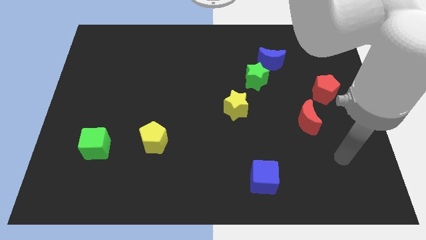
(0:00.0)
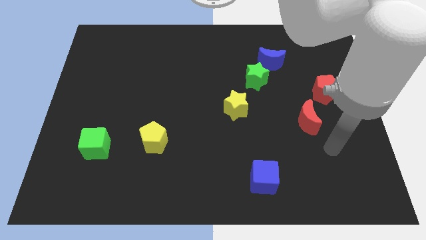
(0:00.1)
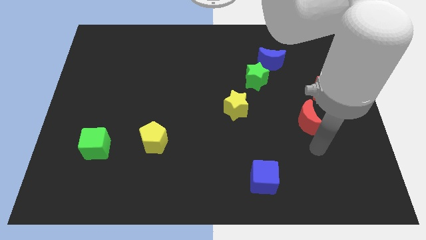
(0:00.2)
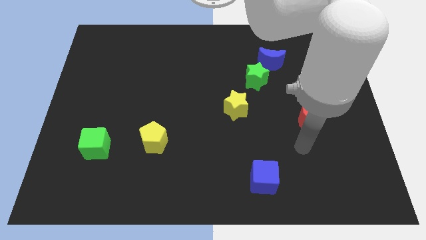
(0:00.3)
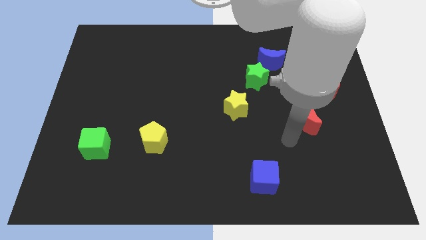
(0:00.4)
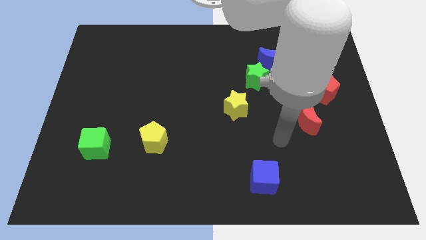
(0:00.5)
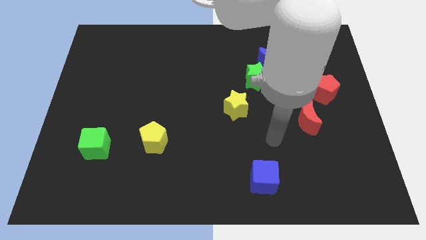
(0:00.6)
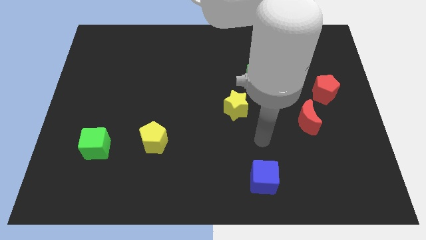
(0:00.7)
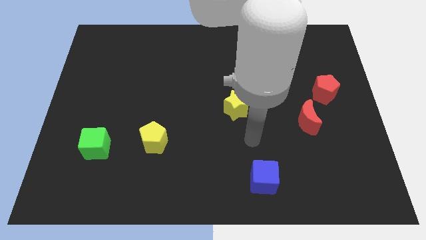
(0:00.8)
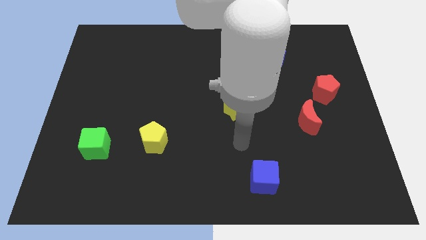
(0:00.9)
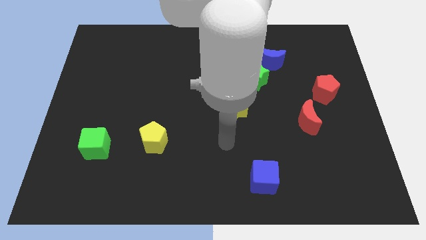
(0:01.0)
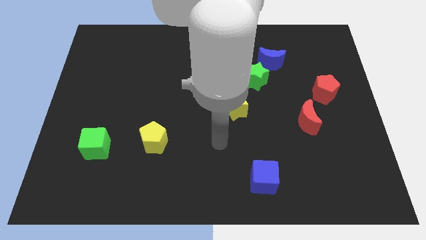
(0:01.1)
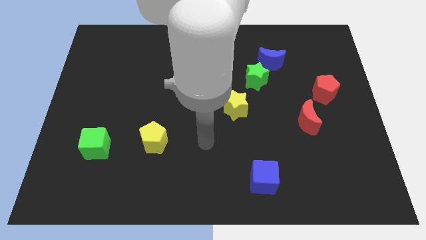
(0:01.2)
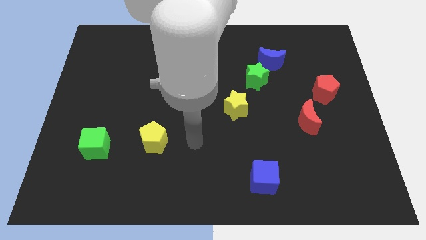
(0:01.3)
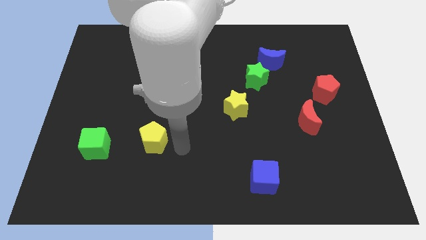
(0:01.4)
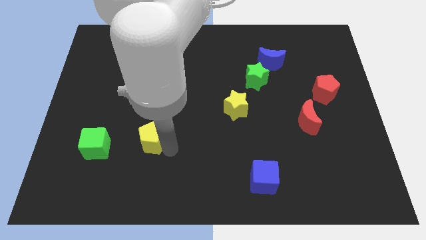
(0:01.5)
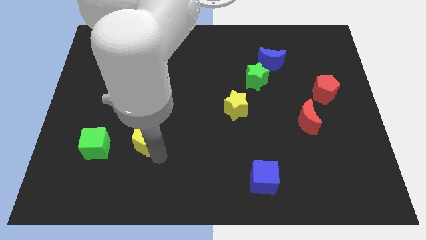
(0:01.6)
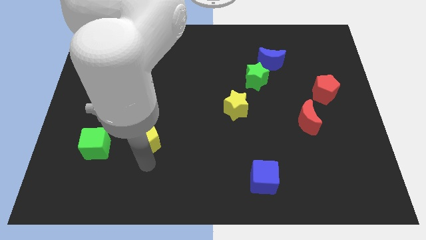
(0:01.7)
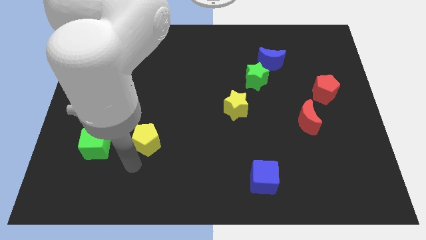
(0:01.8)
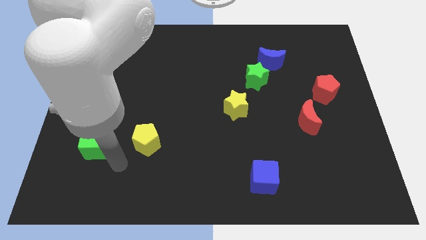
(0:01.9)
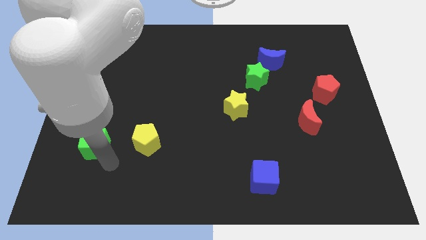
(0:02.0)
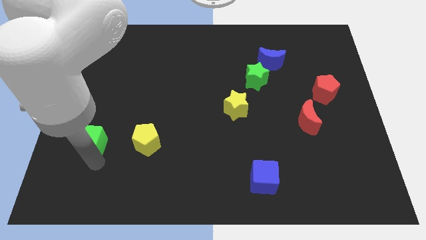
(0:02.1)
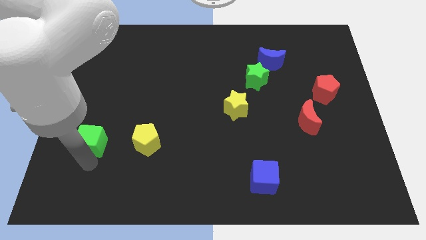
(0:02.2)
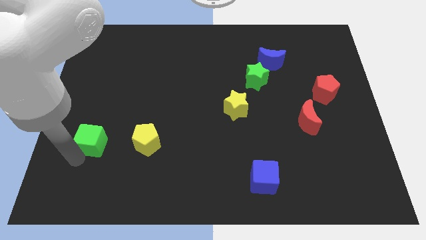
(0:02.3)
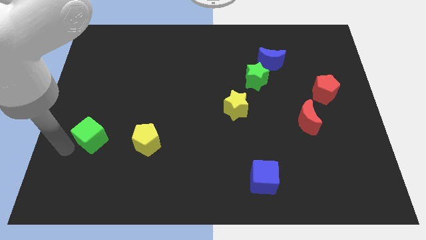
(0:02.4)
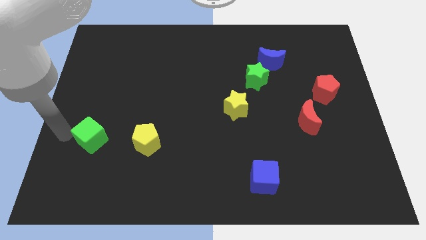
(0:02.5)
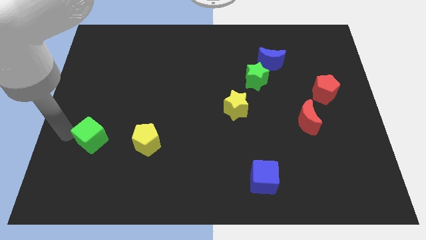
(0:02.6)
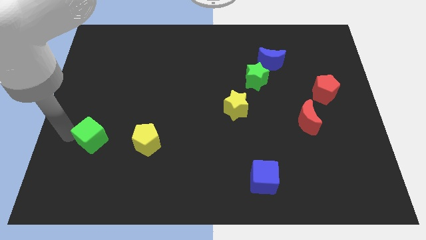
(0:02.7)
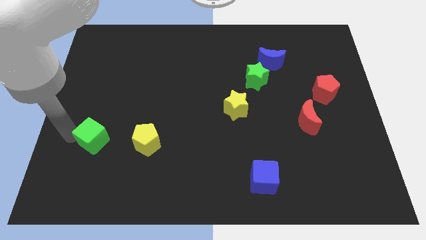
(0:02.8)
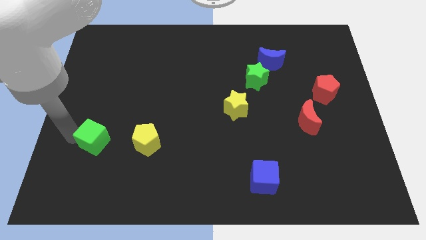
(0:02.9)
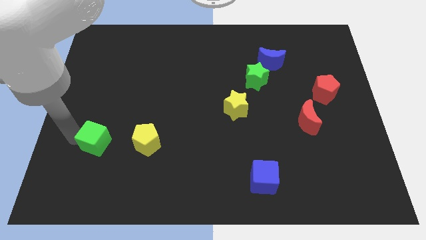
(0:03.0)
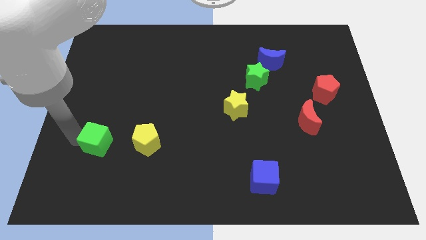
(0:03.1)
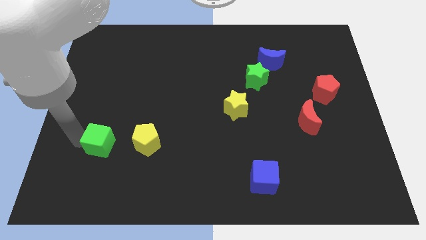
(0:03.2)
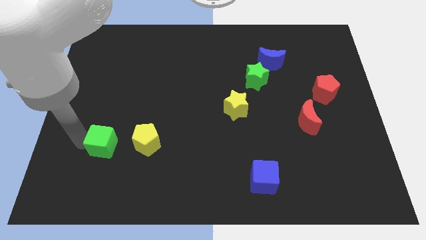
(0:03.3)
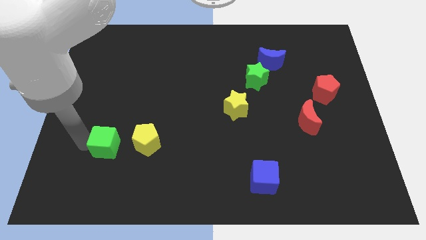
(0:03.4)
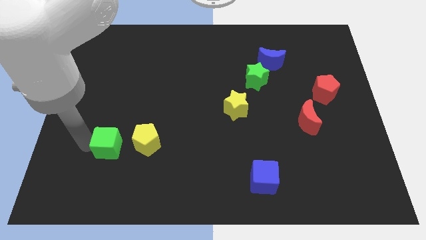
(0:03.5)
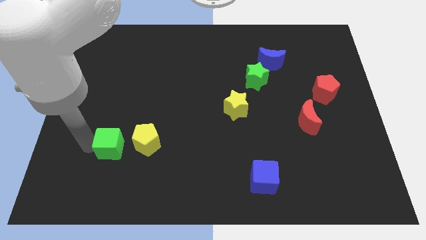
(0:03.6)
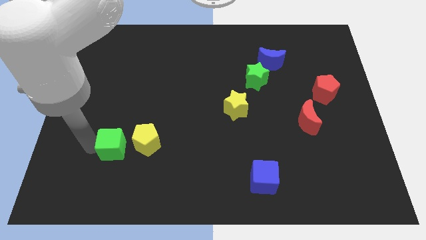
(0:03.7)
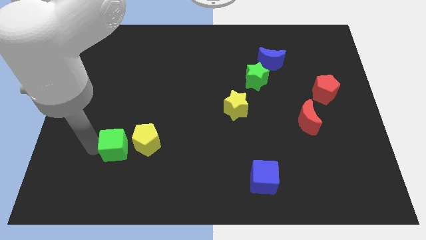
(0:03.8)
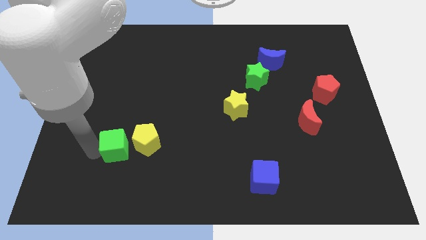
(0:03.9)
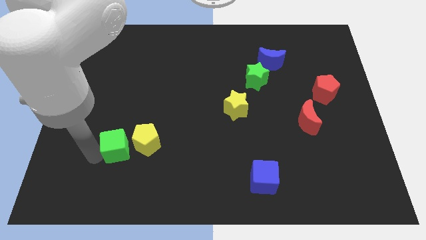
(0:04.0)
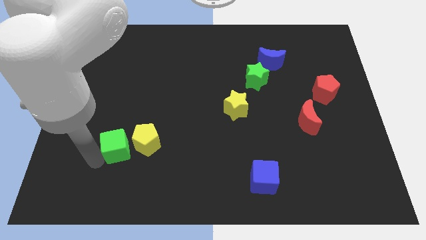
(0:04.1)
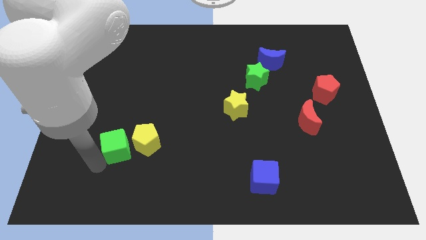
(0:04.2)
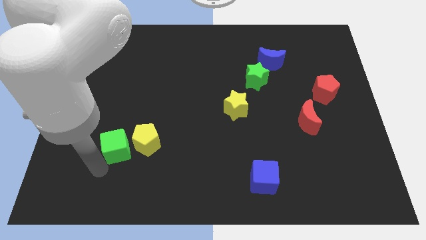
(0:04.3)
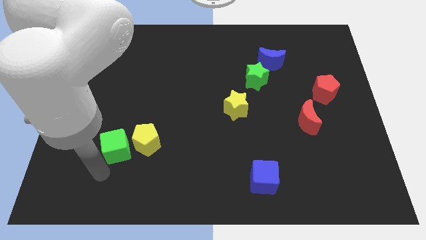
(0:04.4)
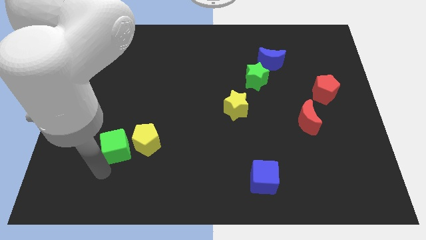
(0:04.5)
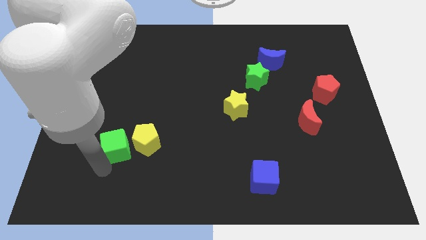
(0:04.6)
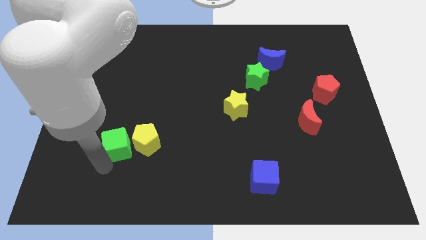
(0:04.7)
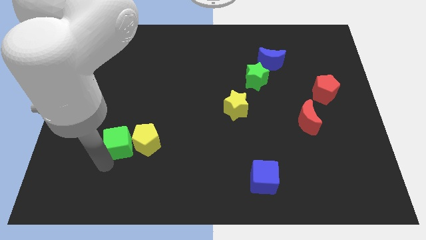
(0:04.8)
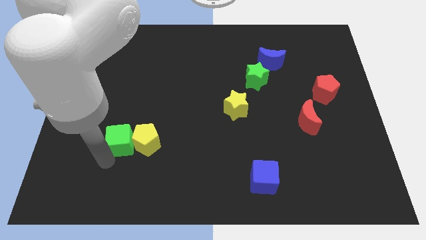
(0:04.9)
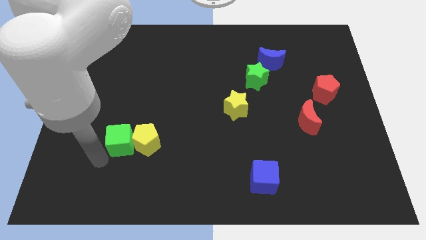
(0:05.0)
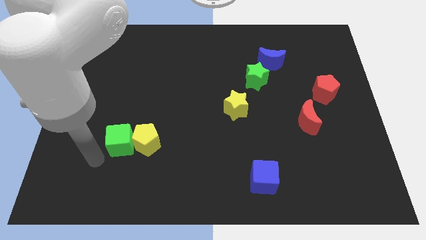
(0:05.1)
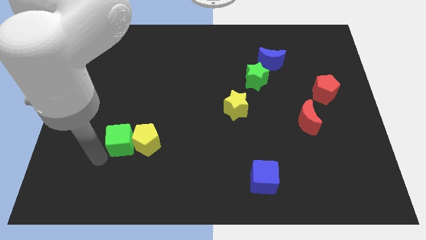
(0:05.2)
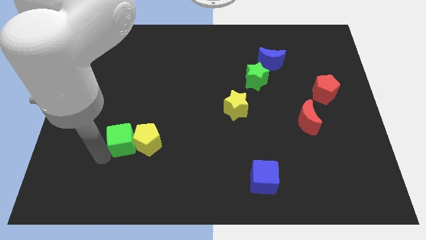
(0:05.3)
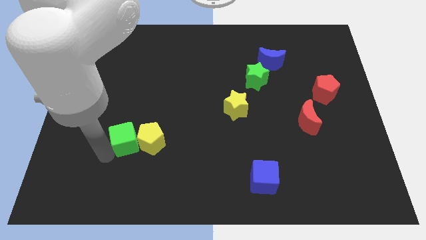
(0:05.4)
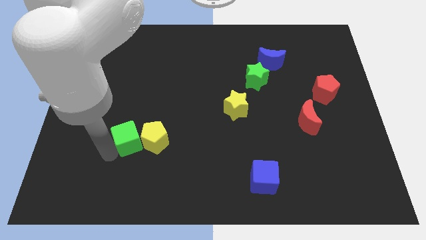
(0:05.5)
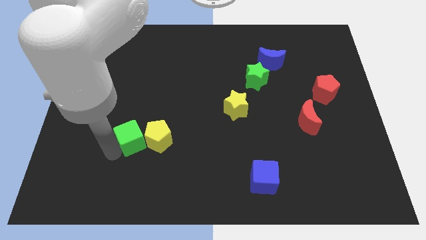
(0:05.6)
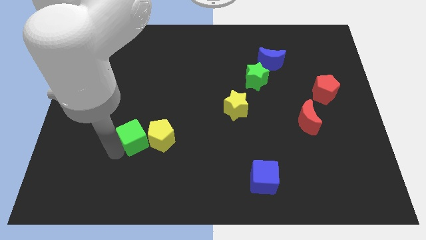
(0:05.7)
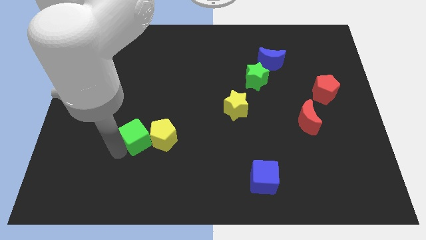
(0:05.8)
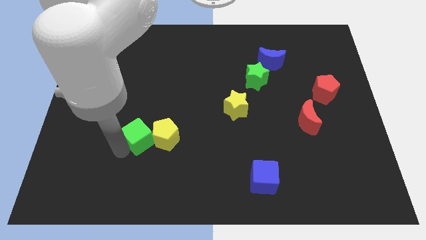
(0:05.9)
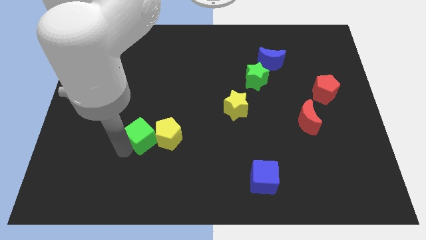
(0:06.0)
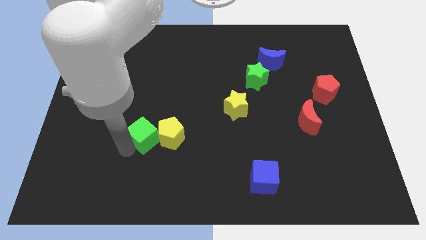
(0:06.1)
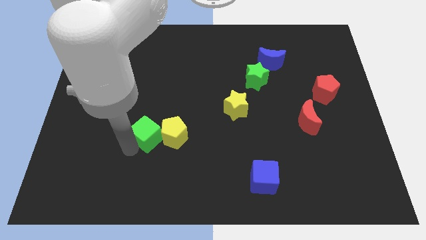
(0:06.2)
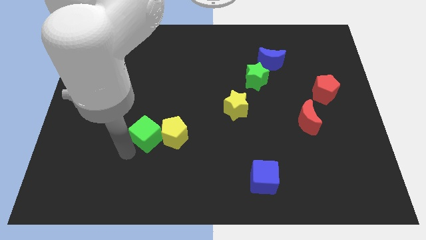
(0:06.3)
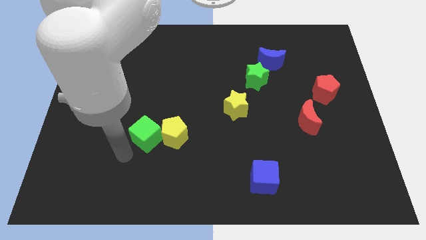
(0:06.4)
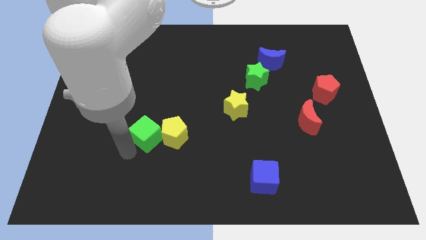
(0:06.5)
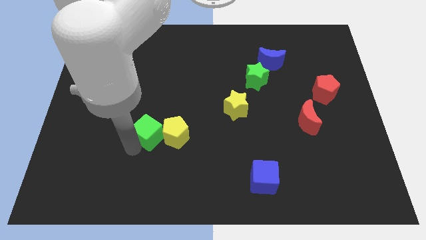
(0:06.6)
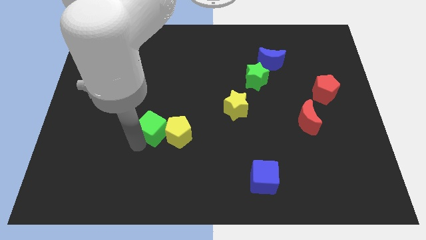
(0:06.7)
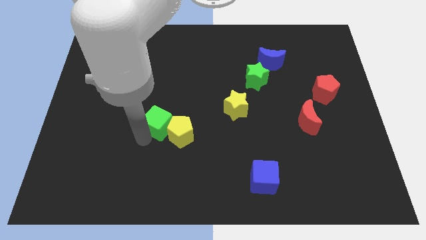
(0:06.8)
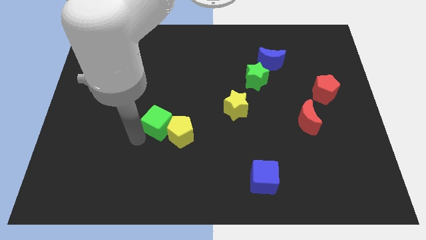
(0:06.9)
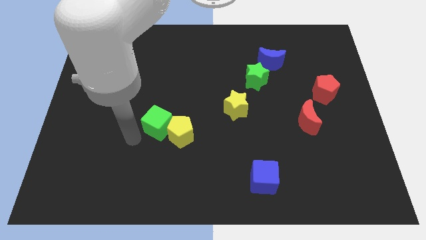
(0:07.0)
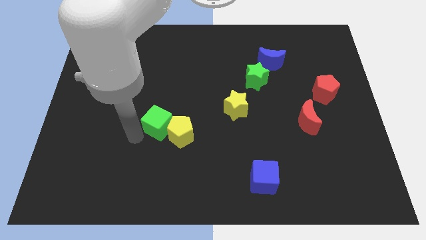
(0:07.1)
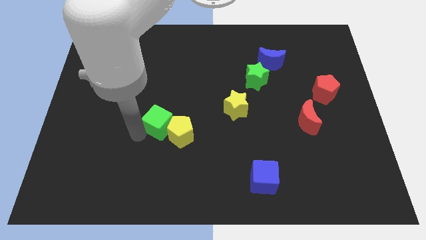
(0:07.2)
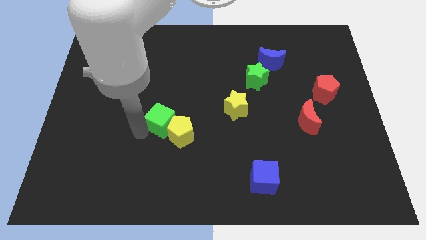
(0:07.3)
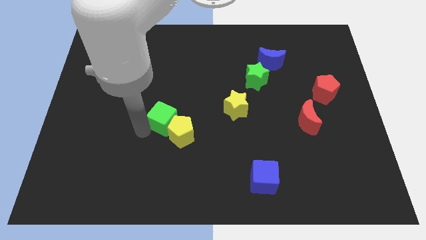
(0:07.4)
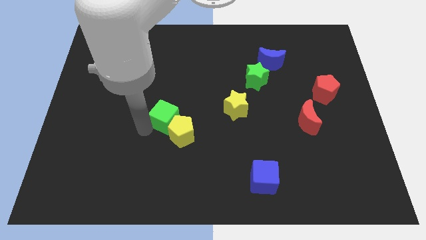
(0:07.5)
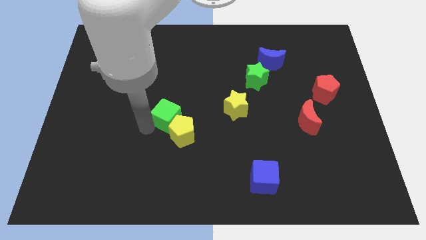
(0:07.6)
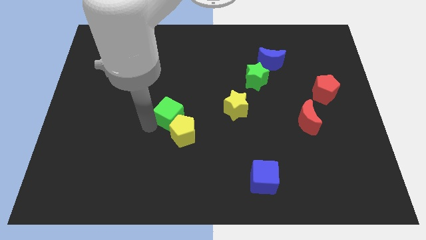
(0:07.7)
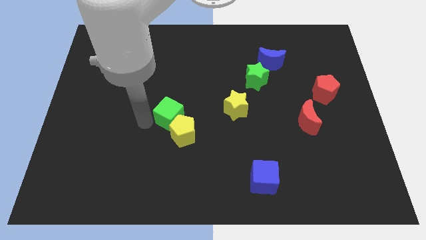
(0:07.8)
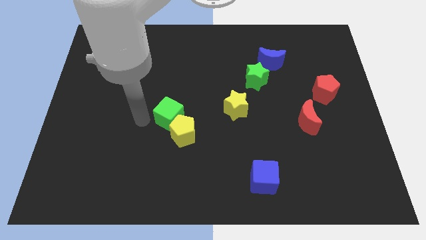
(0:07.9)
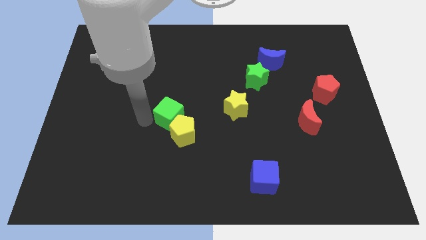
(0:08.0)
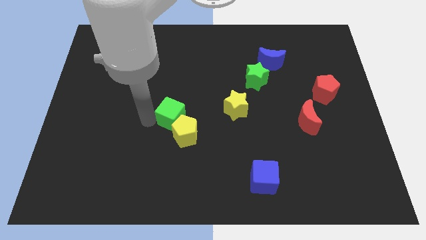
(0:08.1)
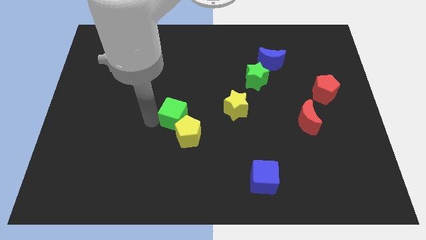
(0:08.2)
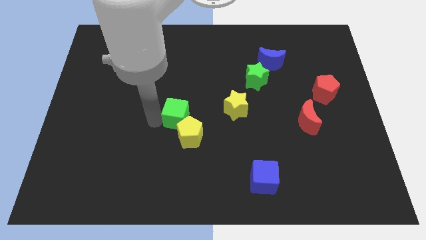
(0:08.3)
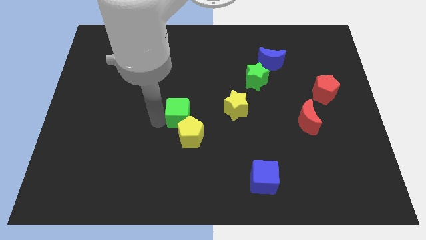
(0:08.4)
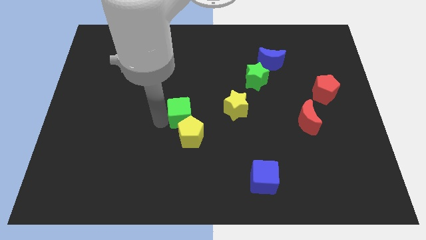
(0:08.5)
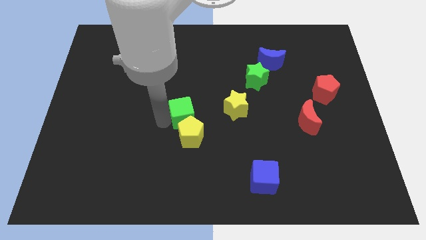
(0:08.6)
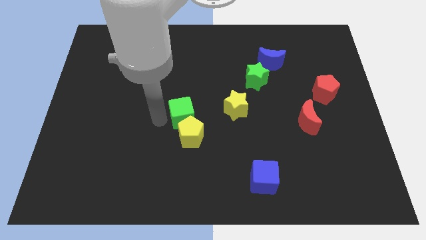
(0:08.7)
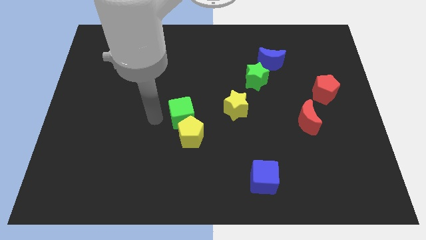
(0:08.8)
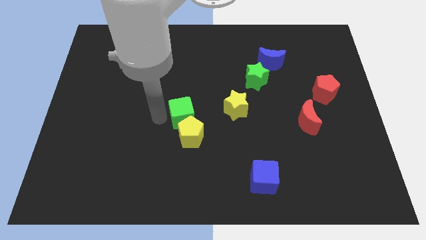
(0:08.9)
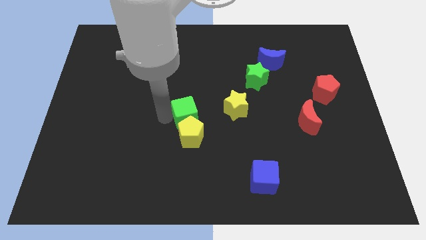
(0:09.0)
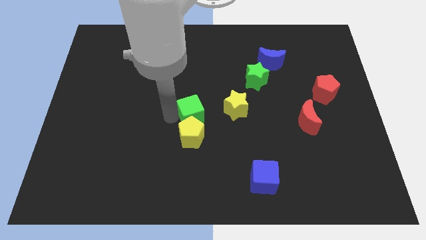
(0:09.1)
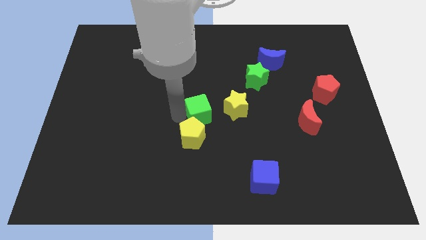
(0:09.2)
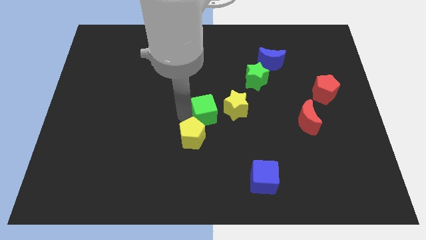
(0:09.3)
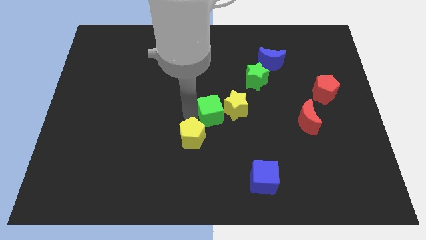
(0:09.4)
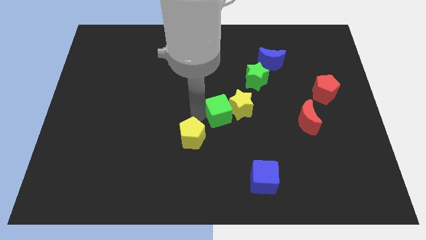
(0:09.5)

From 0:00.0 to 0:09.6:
slide the green cube towards the yellow star
